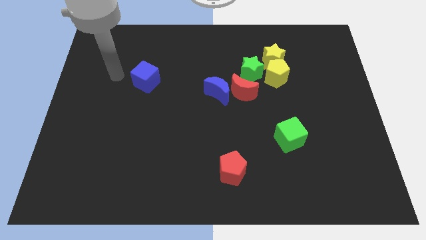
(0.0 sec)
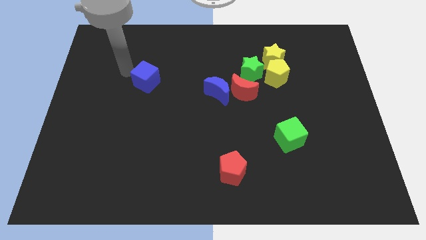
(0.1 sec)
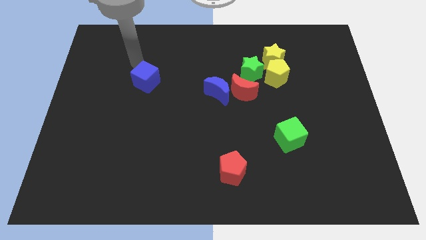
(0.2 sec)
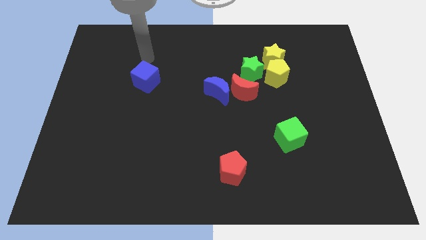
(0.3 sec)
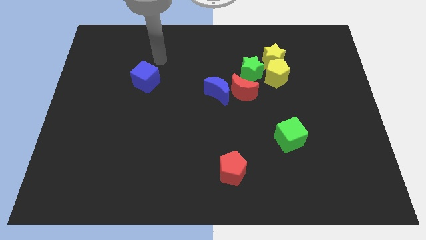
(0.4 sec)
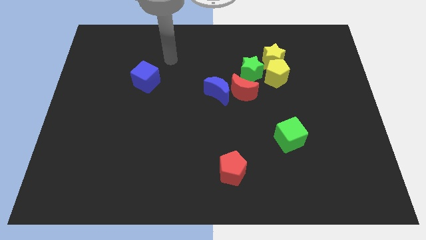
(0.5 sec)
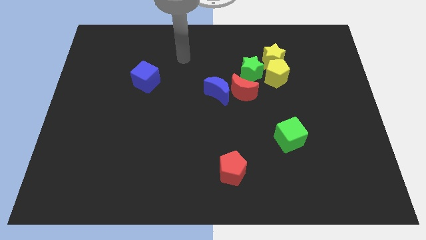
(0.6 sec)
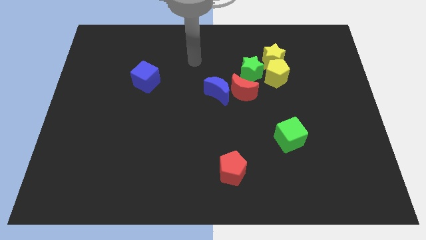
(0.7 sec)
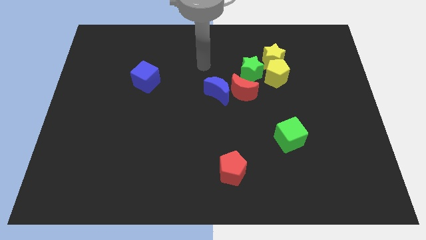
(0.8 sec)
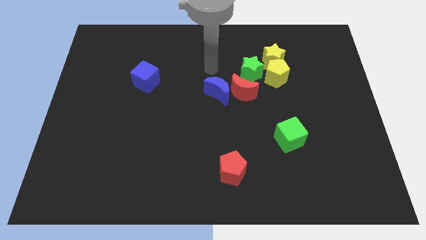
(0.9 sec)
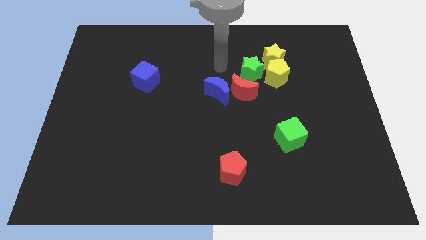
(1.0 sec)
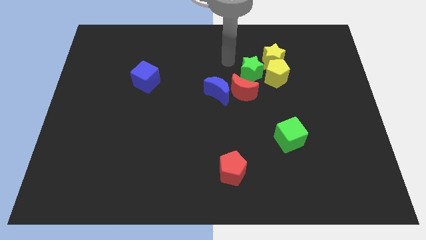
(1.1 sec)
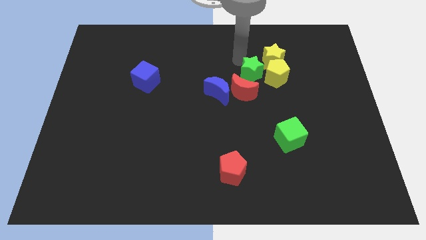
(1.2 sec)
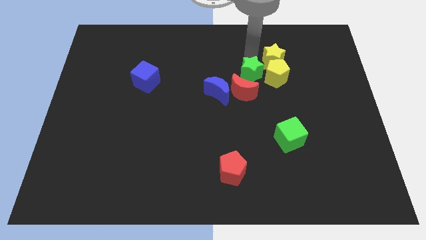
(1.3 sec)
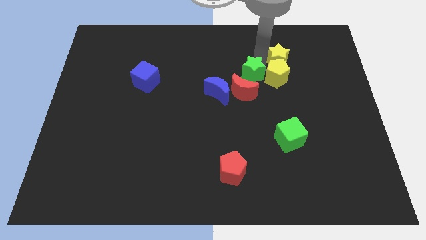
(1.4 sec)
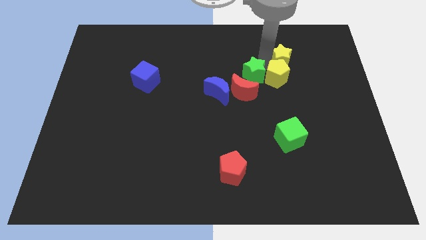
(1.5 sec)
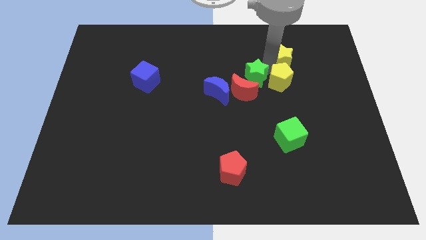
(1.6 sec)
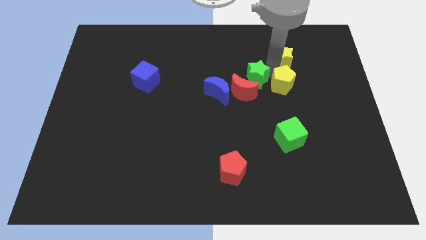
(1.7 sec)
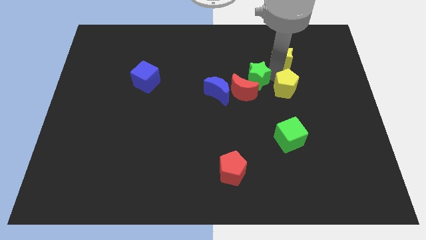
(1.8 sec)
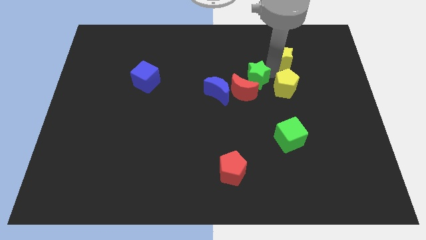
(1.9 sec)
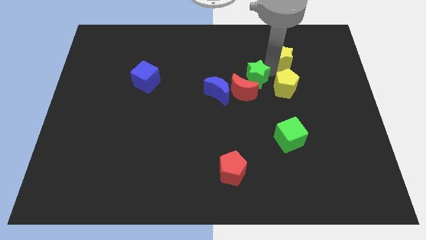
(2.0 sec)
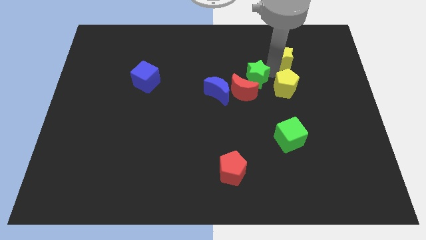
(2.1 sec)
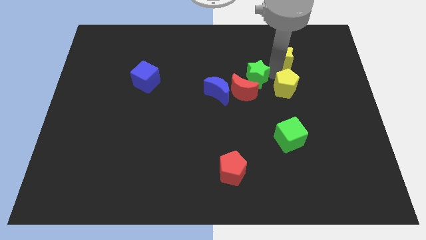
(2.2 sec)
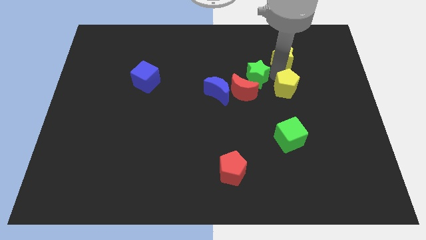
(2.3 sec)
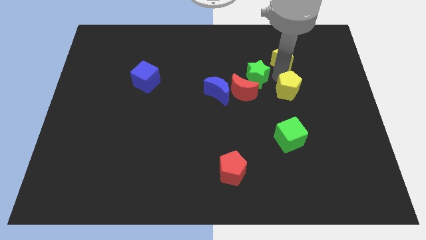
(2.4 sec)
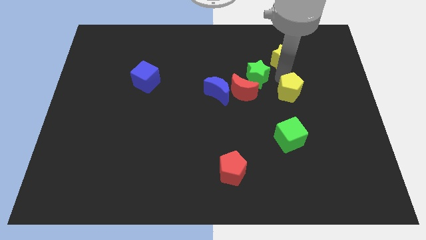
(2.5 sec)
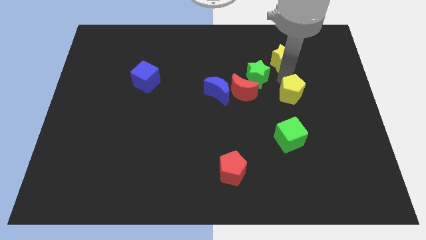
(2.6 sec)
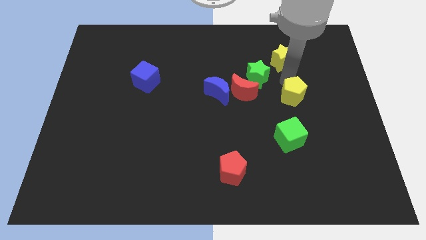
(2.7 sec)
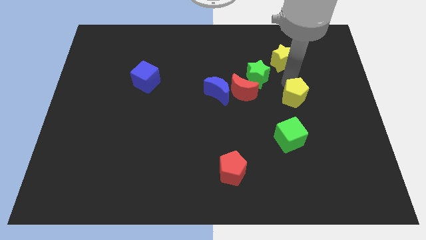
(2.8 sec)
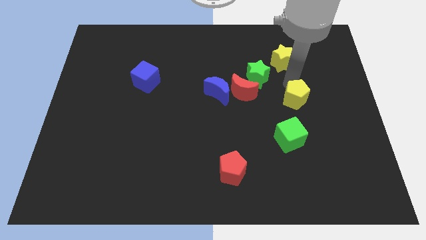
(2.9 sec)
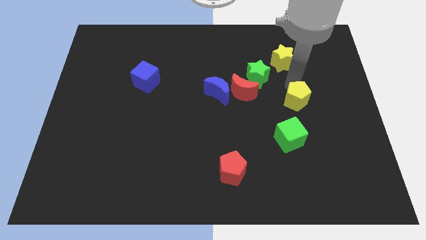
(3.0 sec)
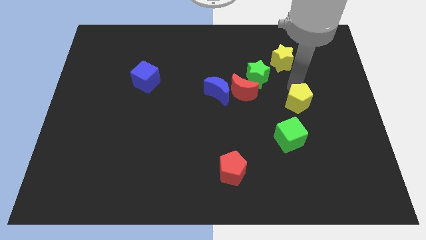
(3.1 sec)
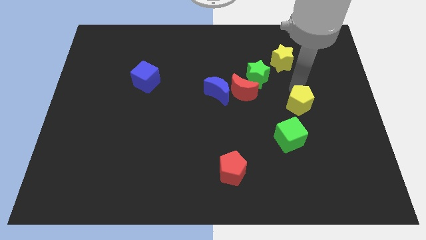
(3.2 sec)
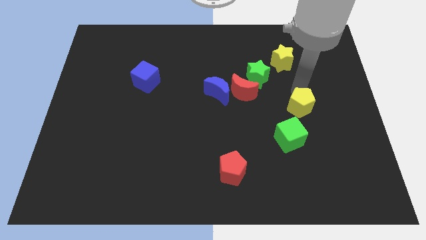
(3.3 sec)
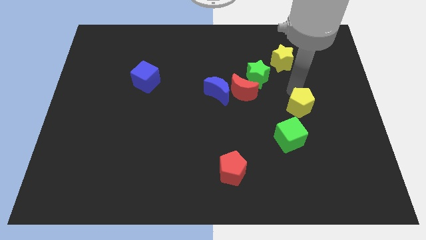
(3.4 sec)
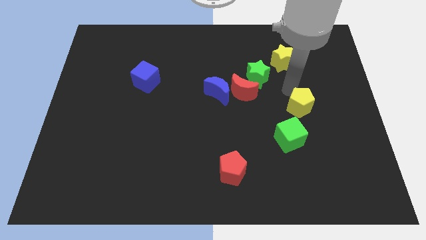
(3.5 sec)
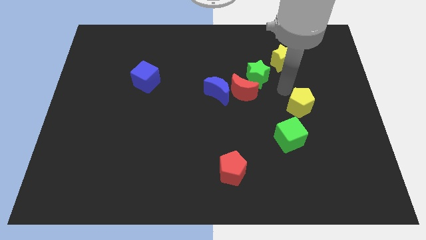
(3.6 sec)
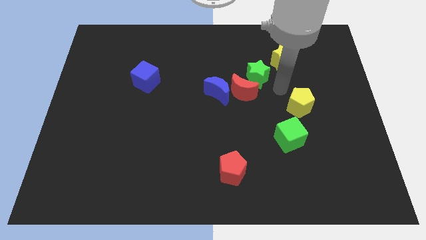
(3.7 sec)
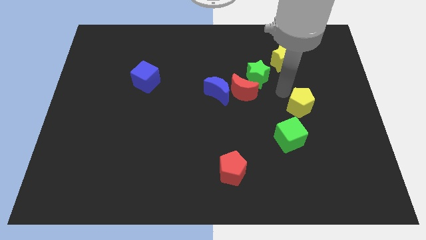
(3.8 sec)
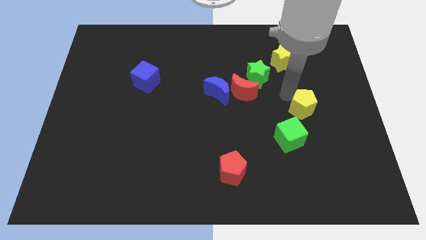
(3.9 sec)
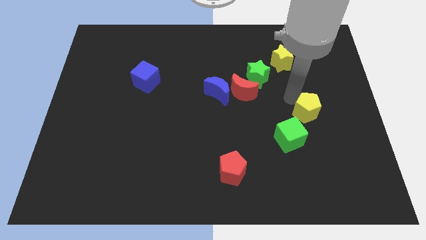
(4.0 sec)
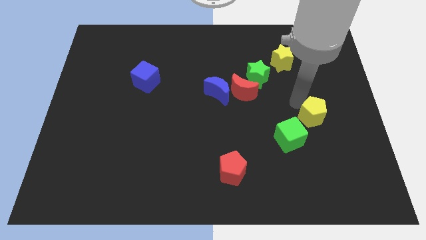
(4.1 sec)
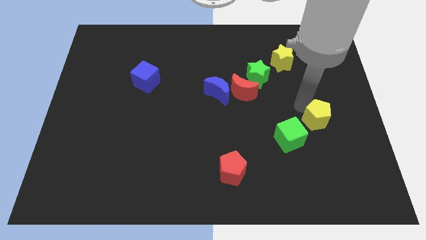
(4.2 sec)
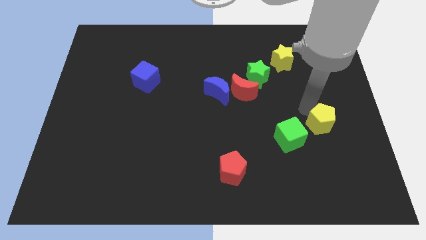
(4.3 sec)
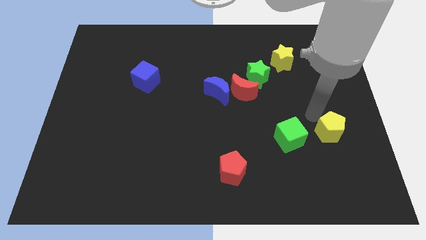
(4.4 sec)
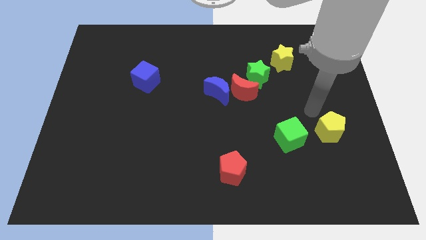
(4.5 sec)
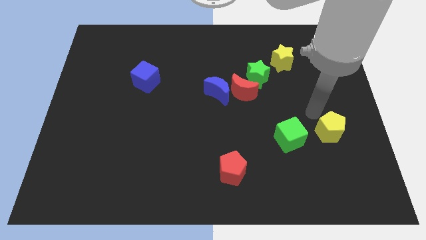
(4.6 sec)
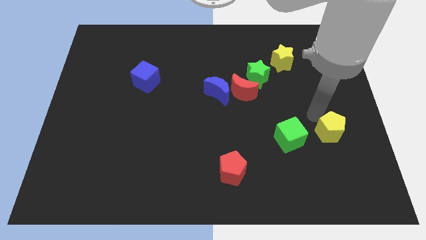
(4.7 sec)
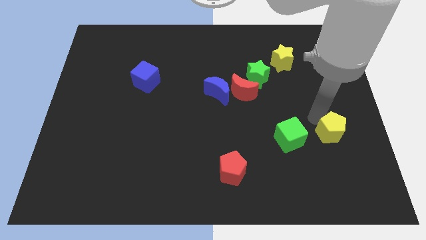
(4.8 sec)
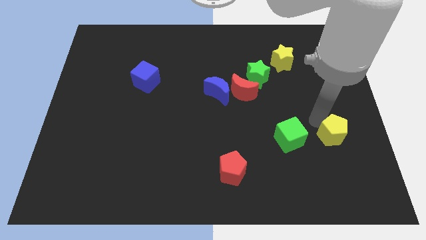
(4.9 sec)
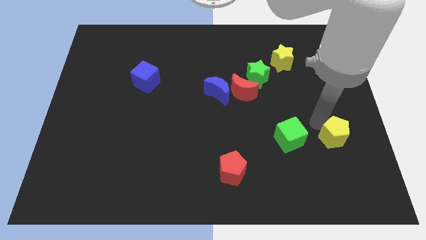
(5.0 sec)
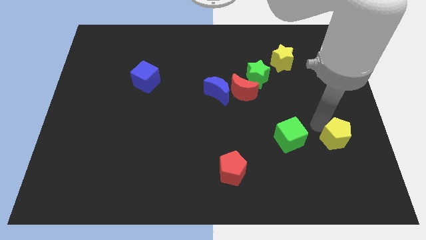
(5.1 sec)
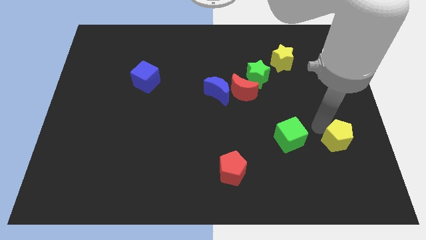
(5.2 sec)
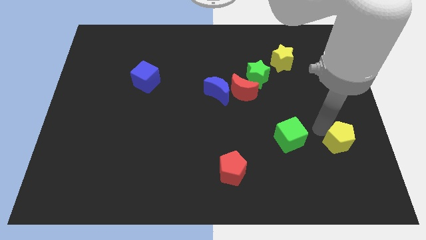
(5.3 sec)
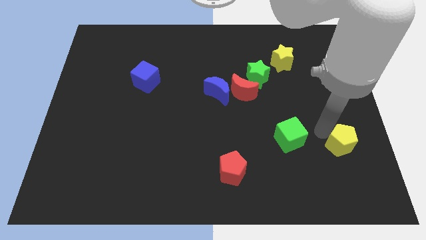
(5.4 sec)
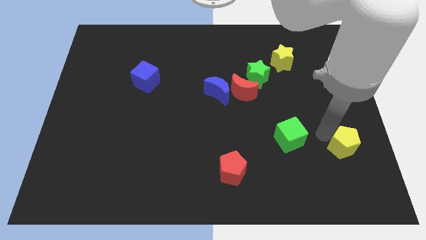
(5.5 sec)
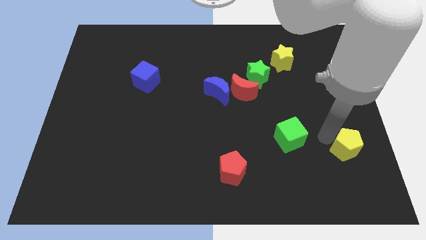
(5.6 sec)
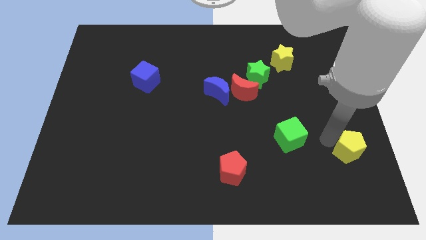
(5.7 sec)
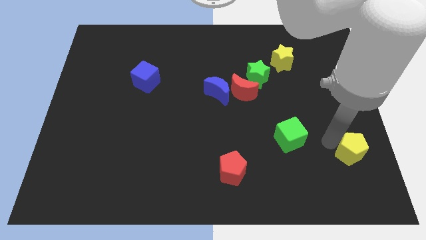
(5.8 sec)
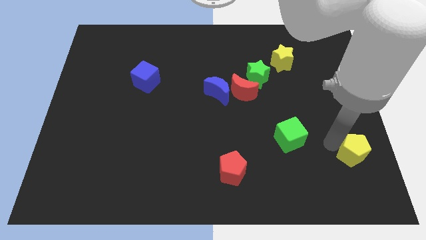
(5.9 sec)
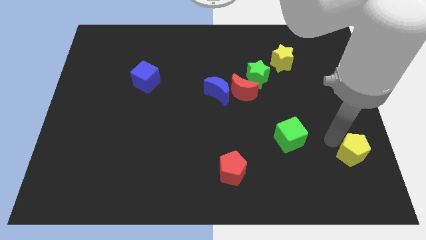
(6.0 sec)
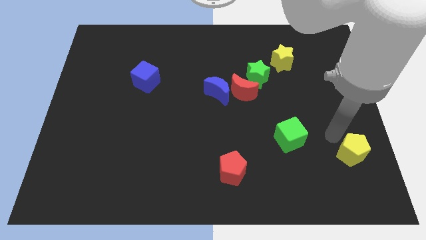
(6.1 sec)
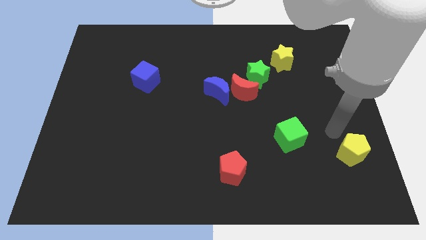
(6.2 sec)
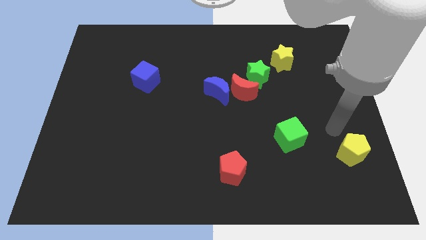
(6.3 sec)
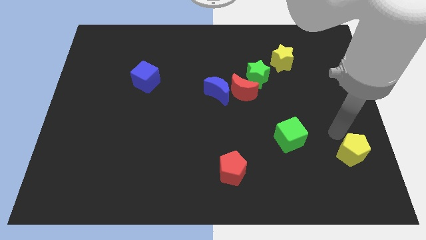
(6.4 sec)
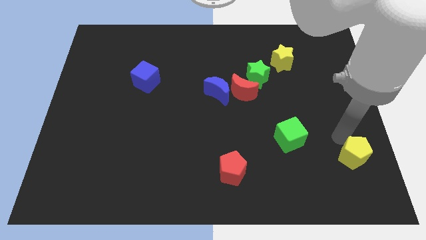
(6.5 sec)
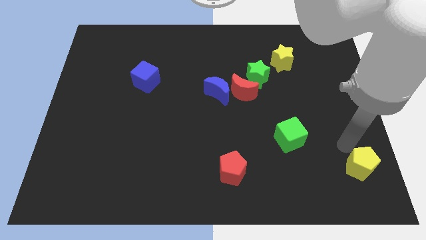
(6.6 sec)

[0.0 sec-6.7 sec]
slide the yellow pentagon to the lower right corner
